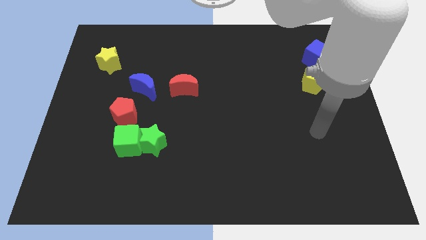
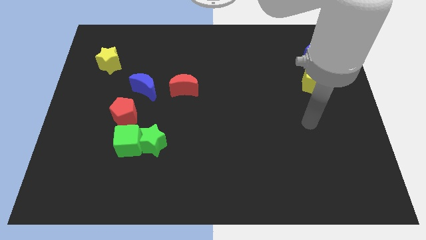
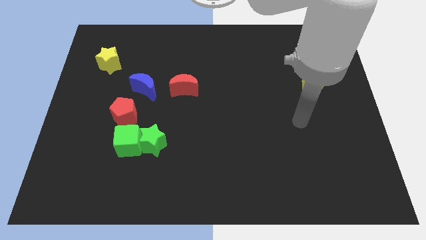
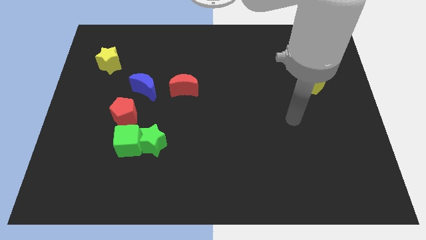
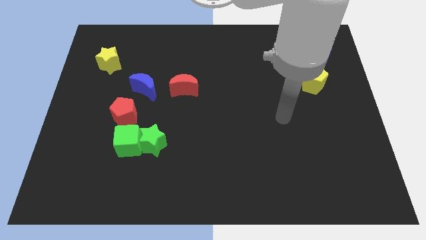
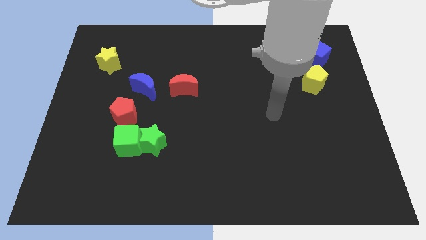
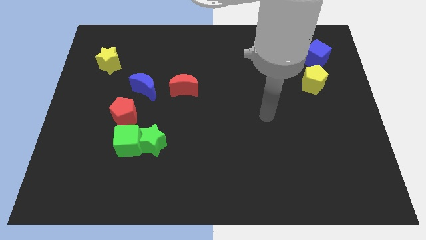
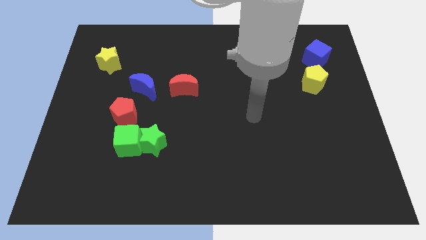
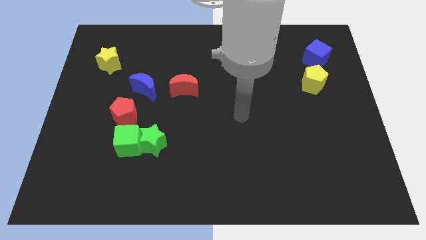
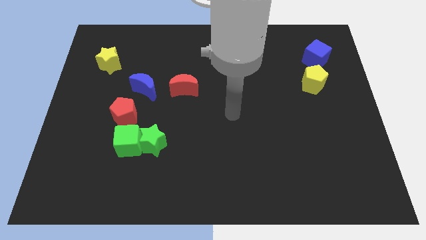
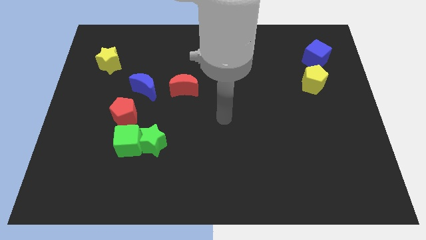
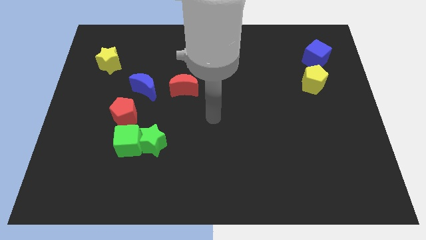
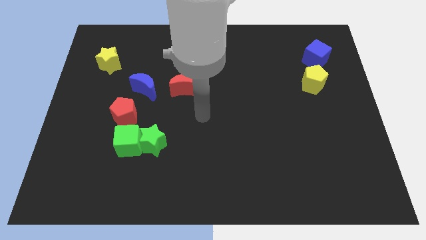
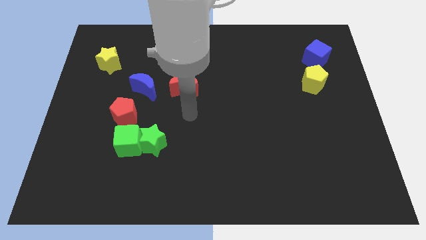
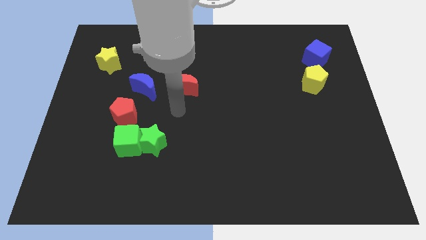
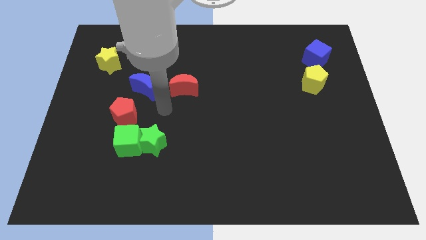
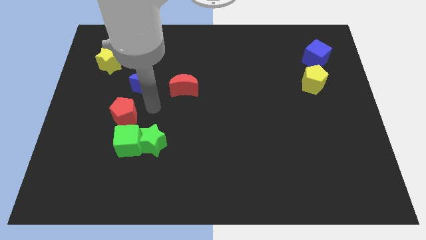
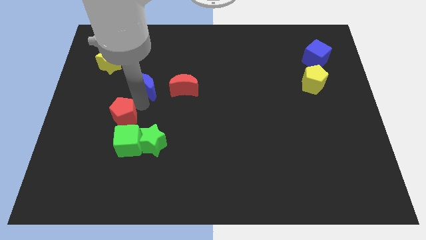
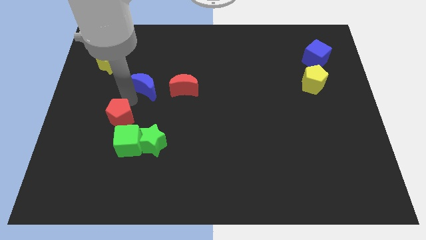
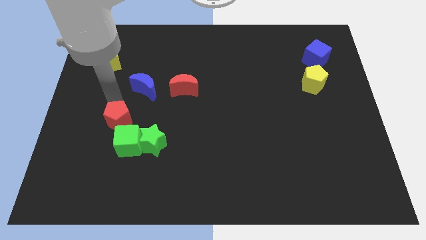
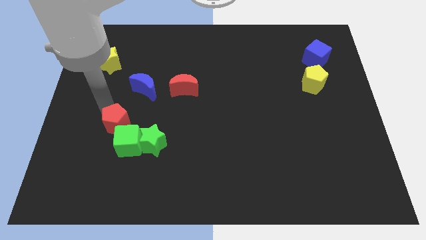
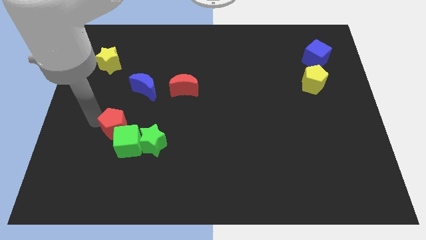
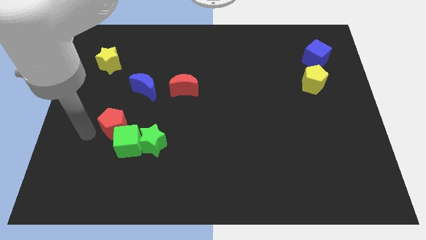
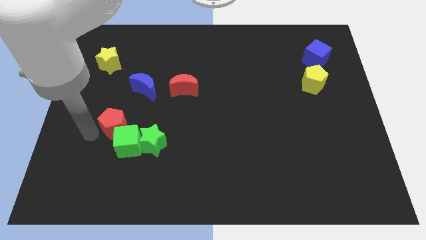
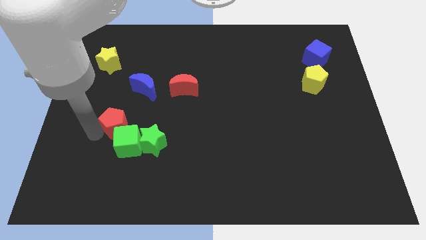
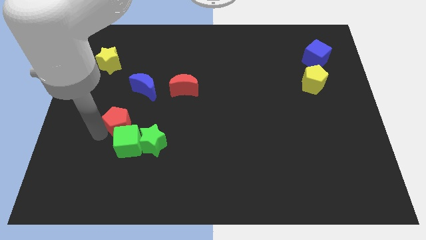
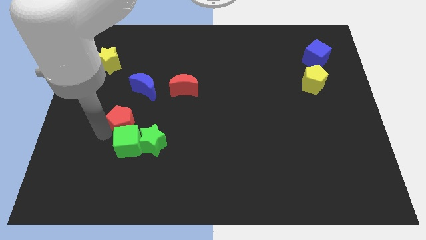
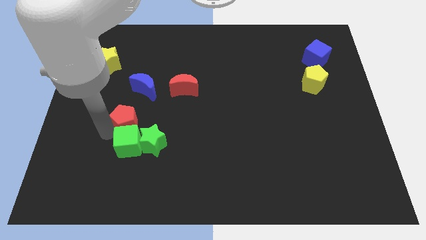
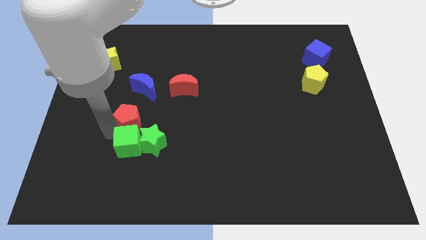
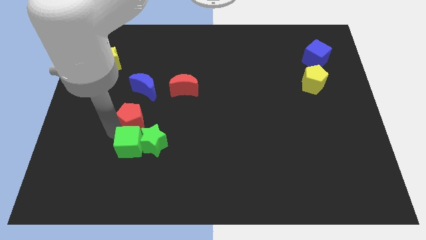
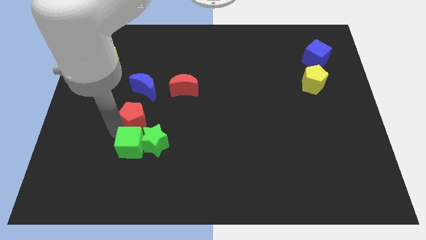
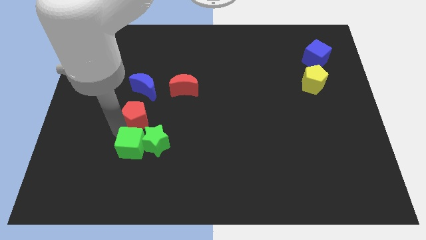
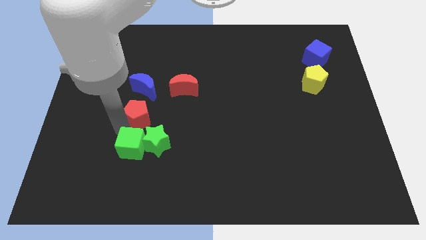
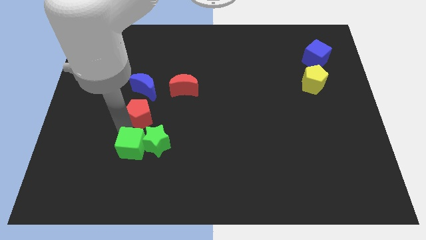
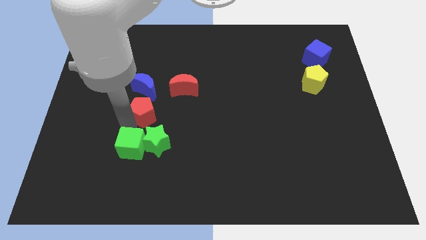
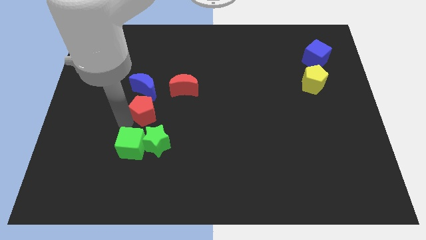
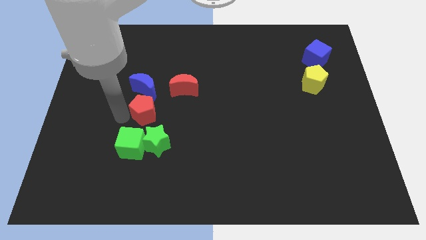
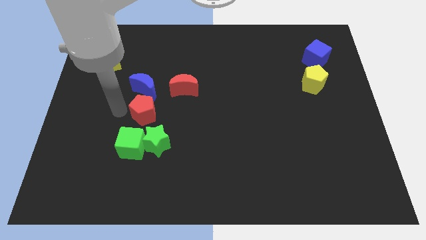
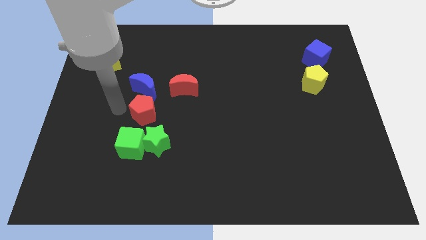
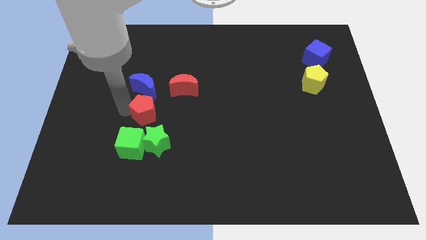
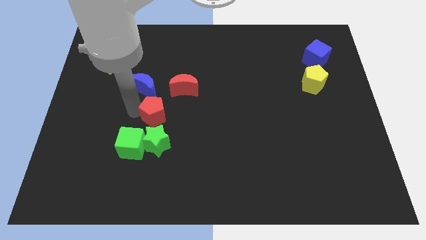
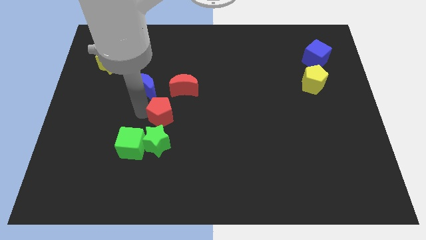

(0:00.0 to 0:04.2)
move the red pentagon right a little bit

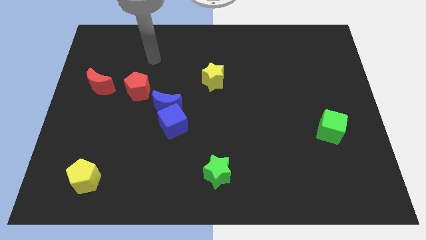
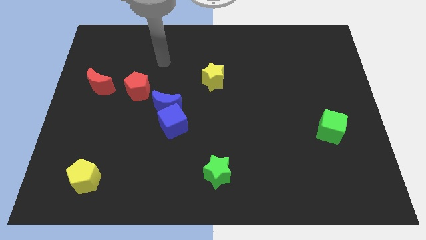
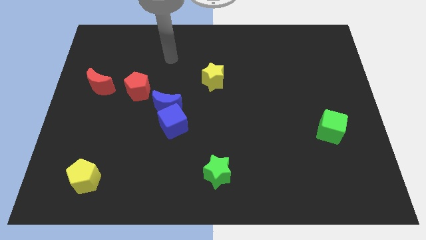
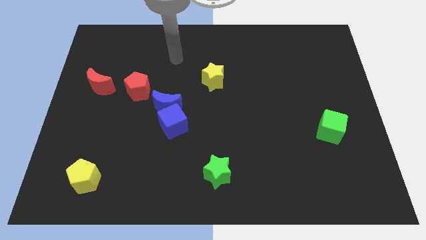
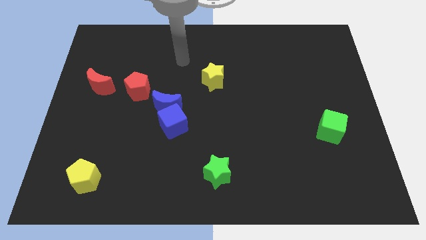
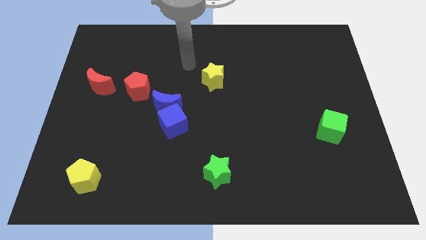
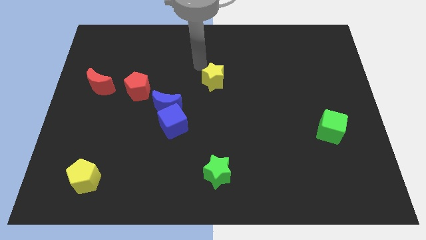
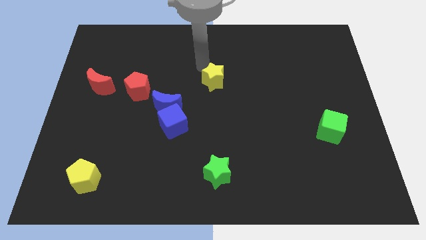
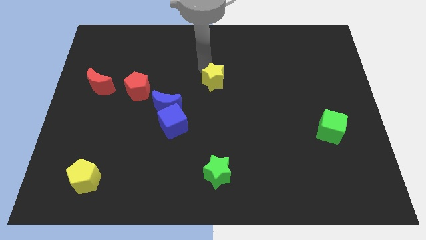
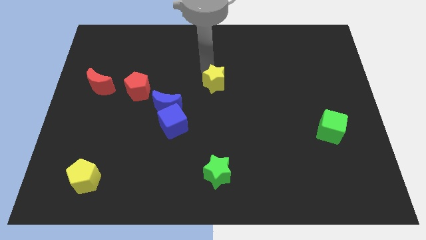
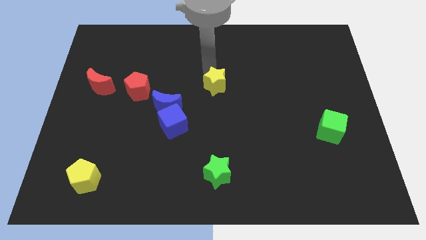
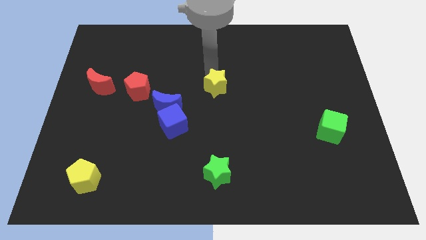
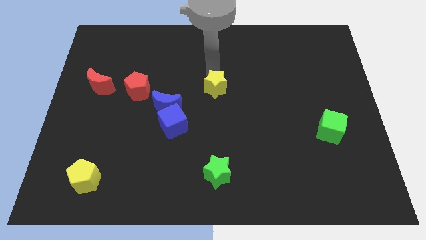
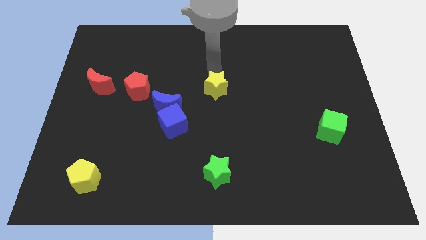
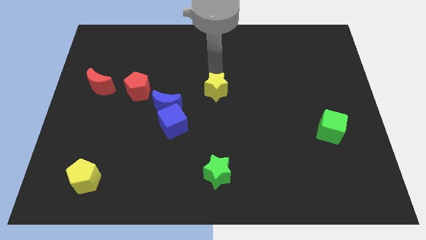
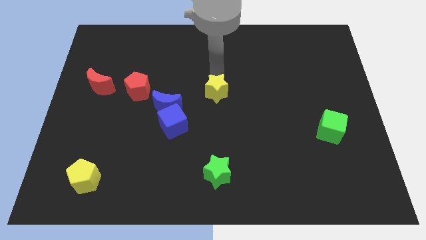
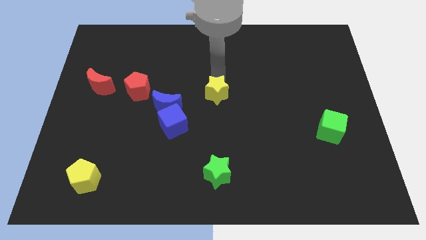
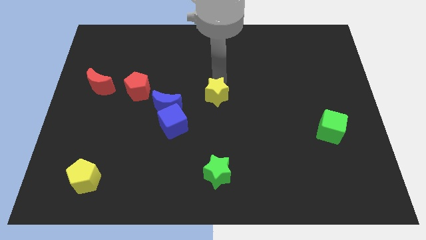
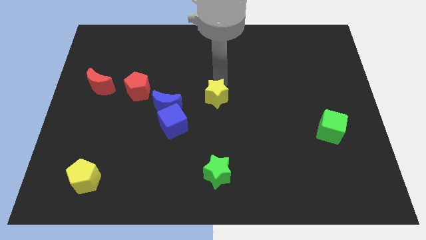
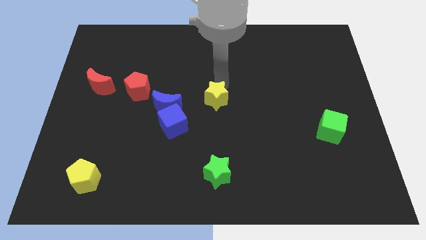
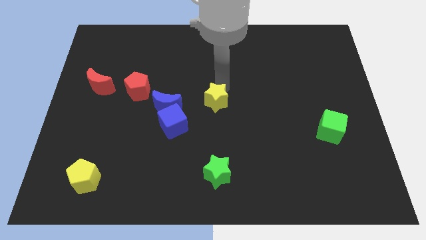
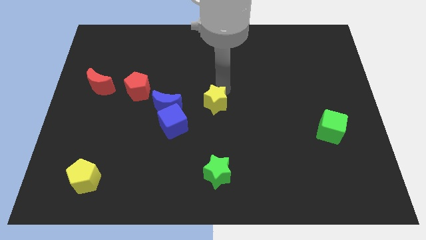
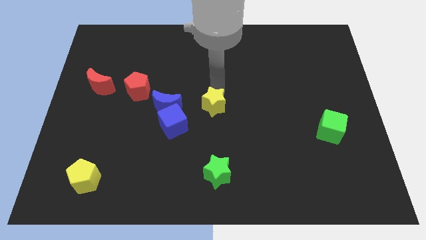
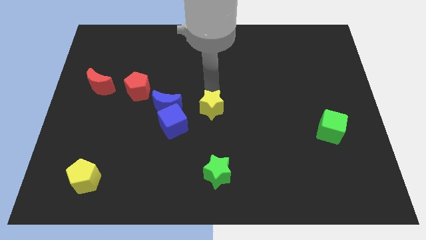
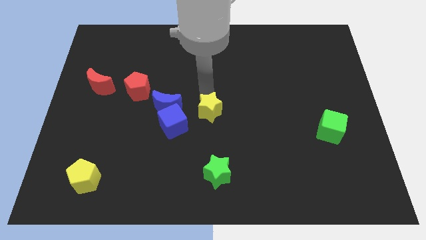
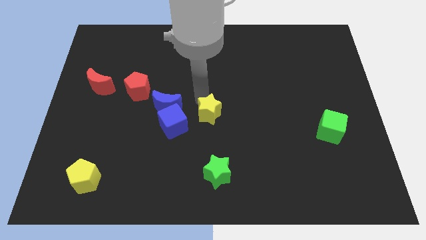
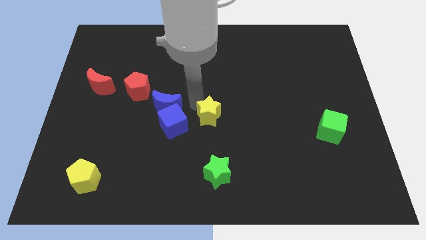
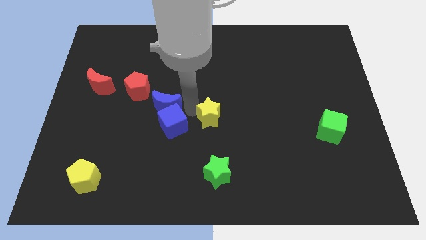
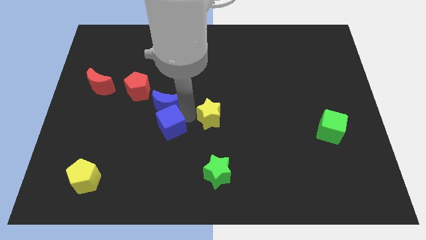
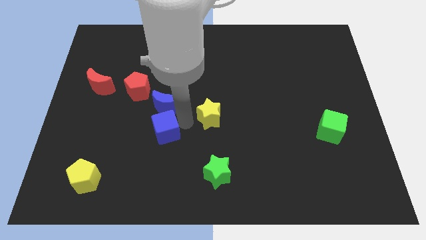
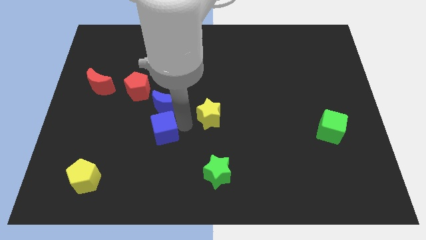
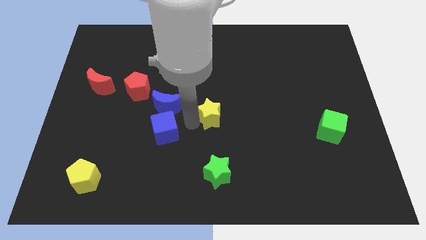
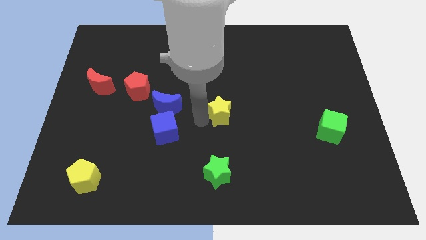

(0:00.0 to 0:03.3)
push the yellow star downwards and right diagonally a little

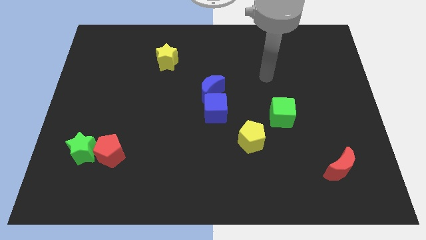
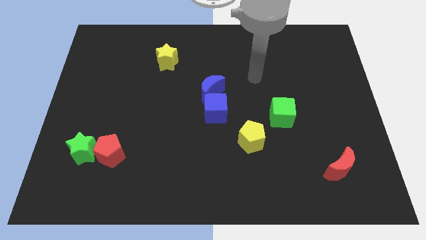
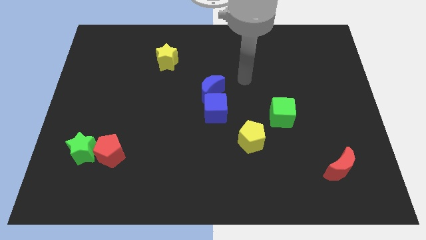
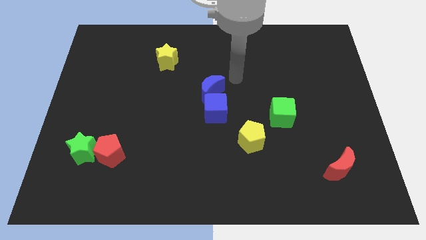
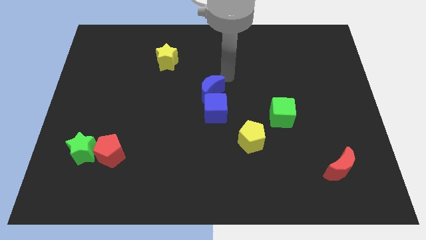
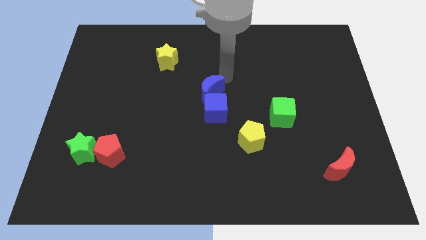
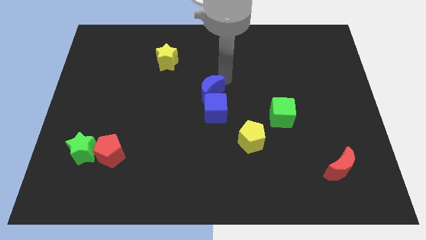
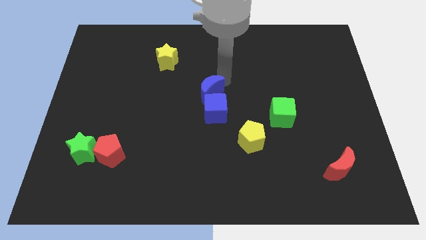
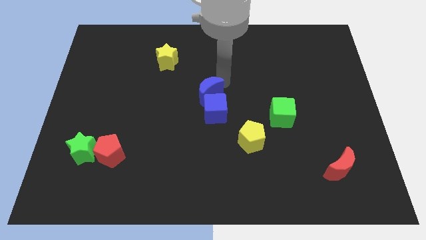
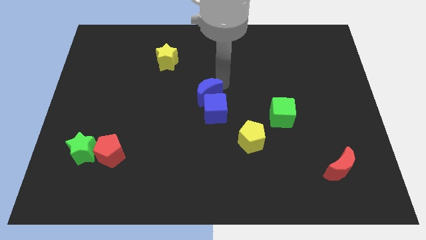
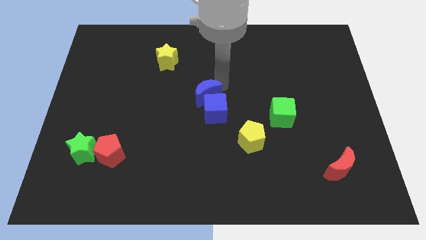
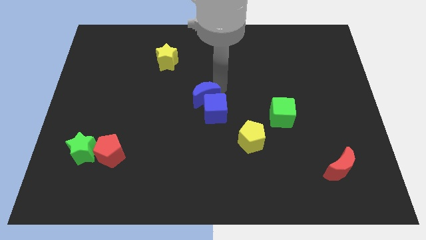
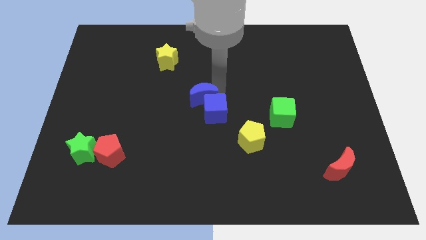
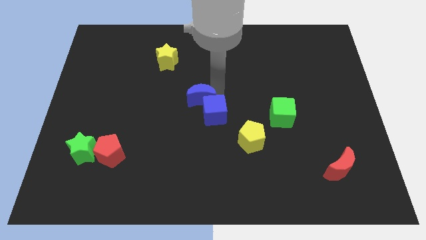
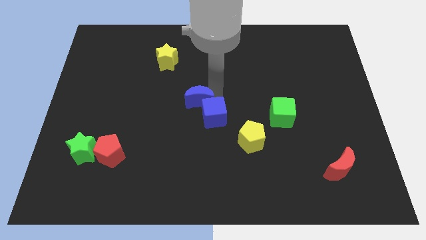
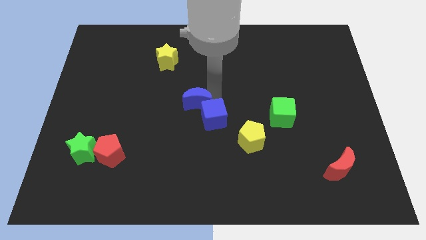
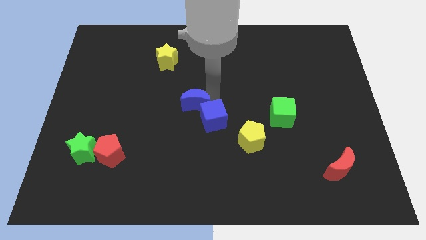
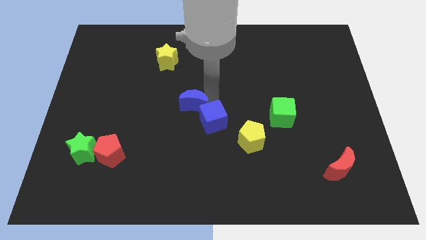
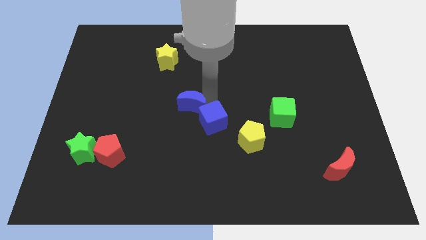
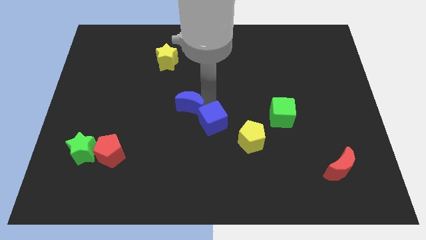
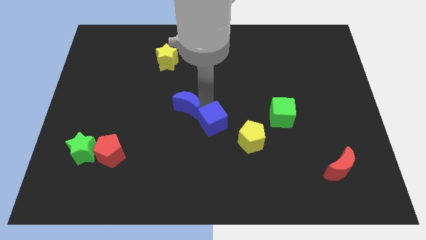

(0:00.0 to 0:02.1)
slightly push the blue moon down and left diagonally
